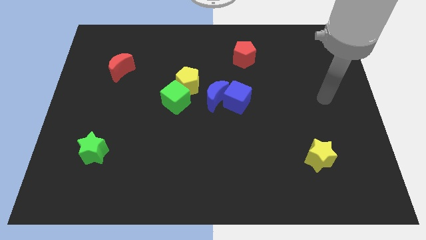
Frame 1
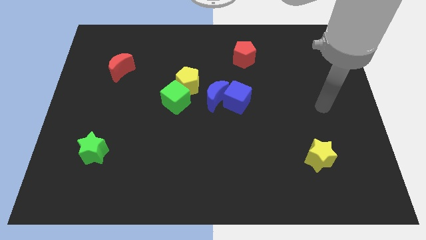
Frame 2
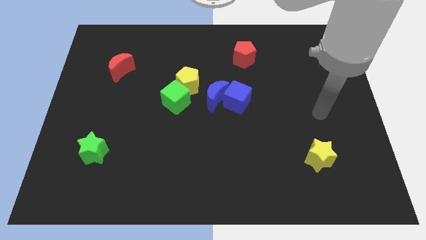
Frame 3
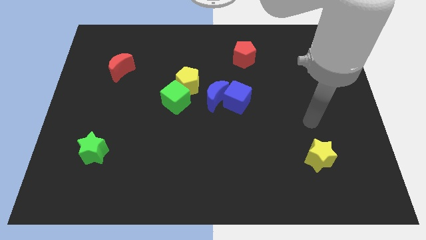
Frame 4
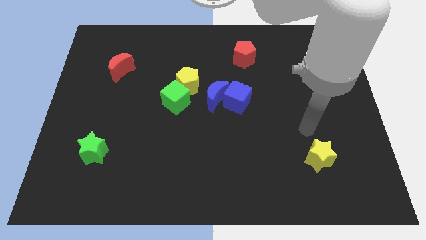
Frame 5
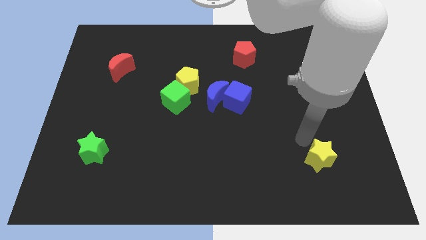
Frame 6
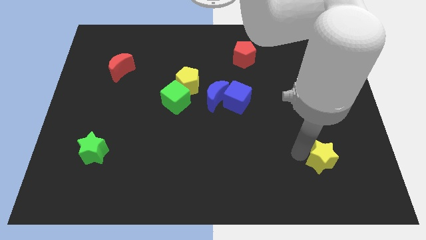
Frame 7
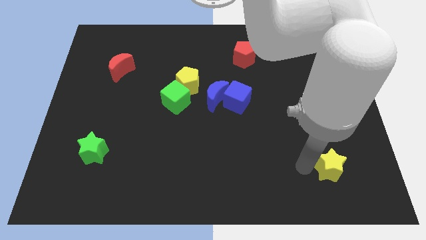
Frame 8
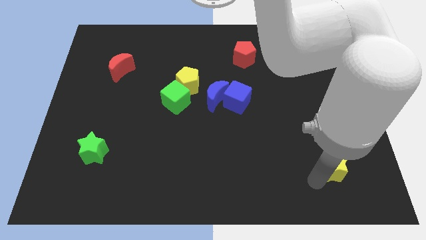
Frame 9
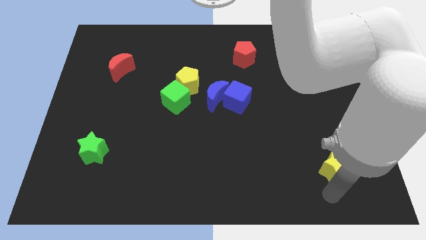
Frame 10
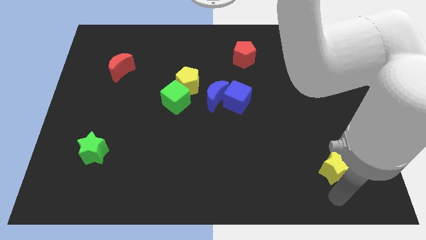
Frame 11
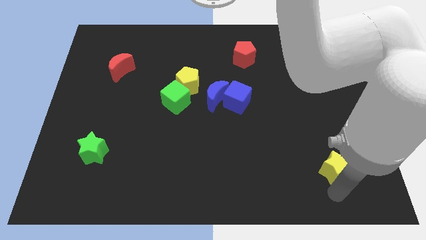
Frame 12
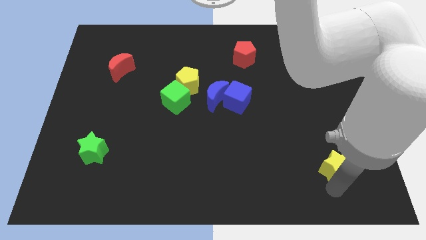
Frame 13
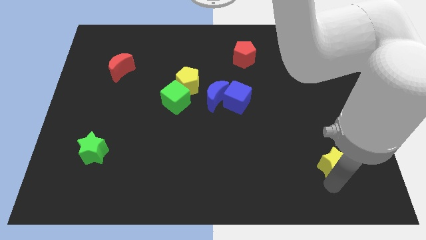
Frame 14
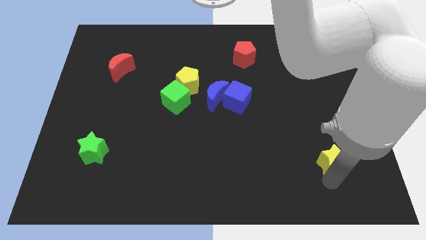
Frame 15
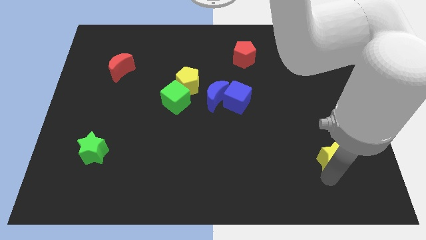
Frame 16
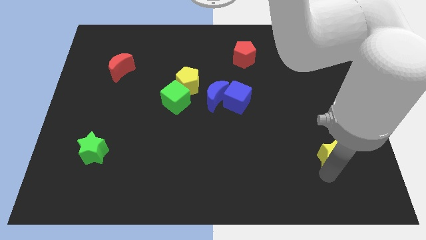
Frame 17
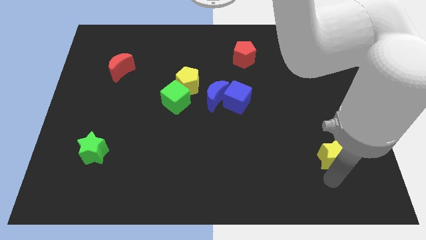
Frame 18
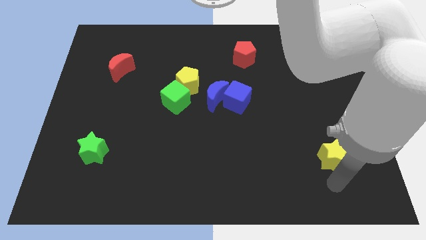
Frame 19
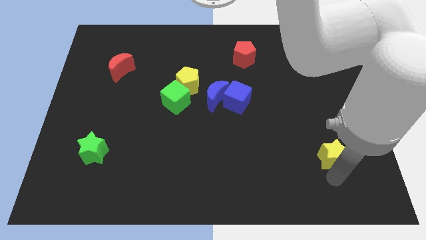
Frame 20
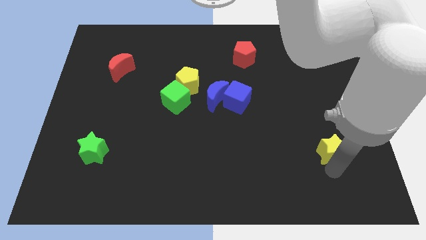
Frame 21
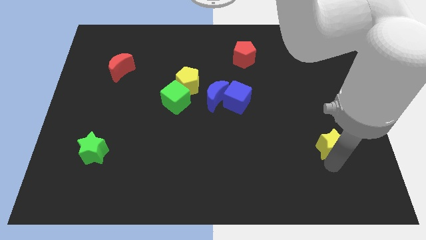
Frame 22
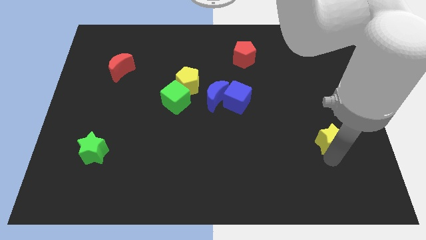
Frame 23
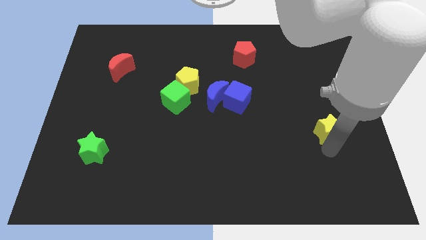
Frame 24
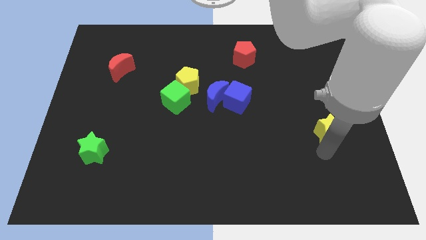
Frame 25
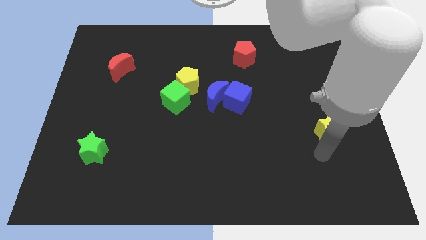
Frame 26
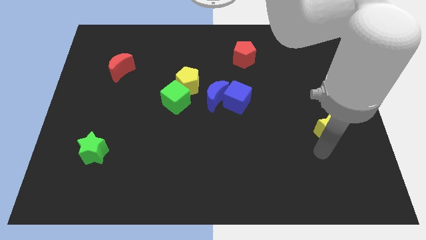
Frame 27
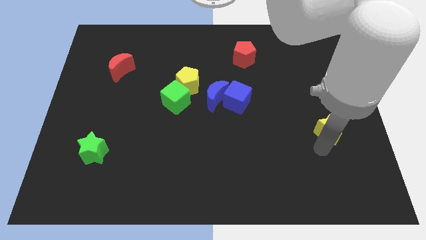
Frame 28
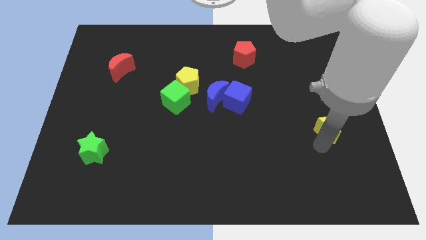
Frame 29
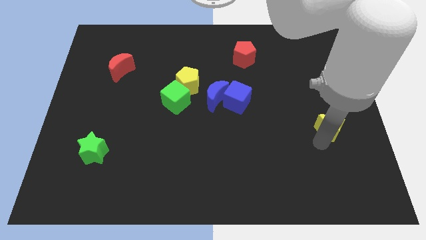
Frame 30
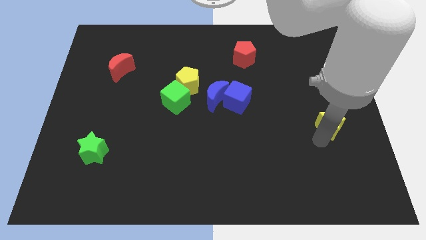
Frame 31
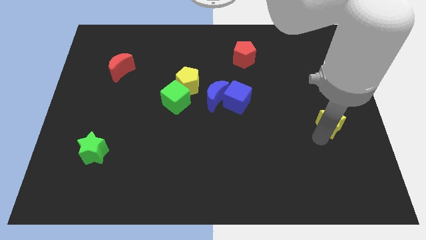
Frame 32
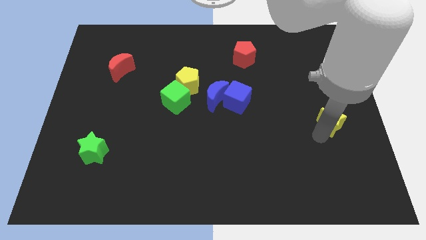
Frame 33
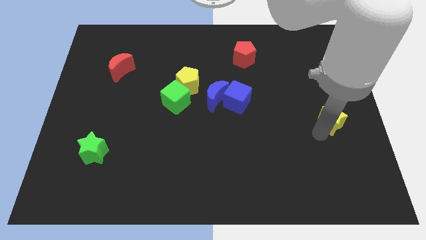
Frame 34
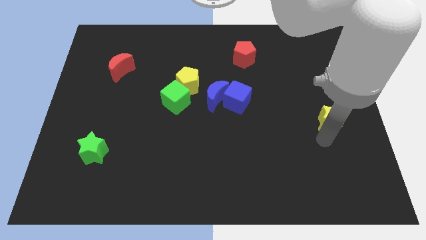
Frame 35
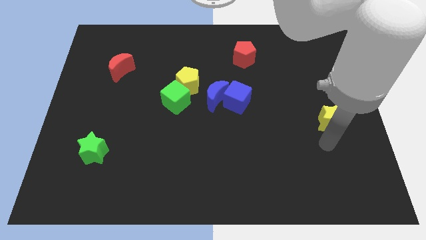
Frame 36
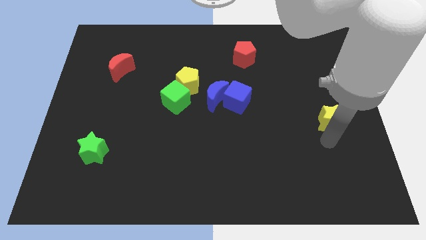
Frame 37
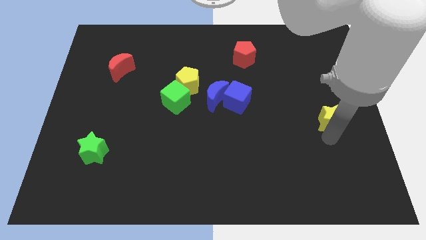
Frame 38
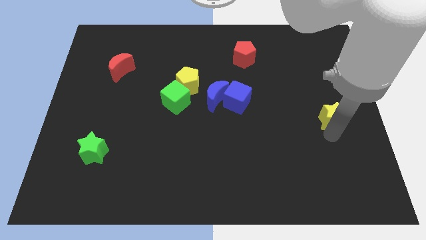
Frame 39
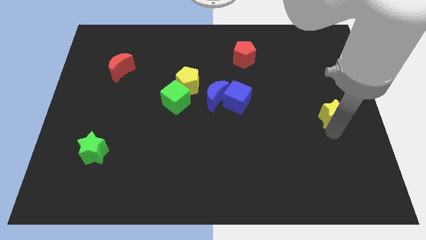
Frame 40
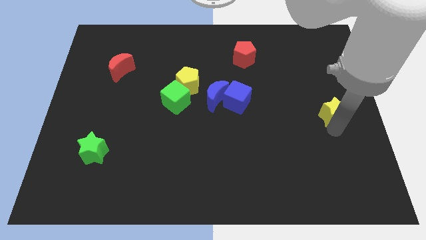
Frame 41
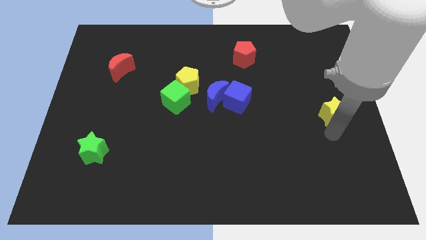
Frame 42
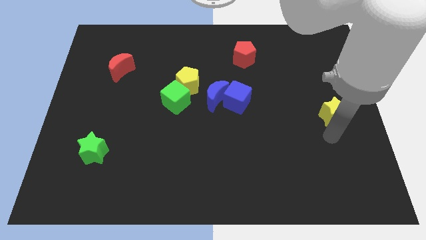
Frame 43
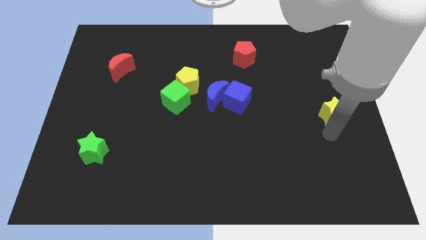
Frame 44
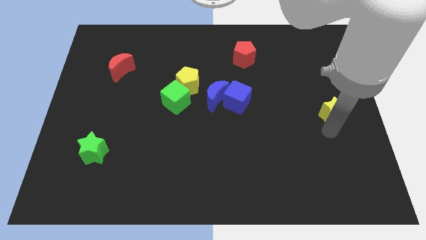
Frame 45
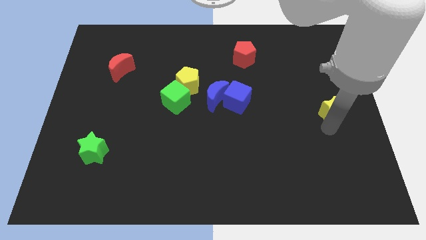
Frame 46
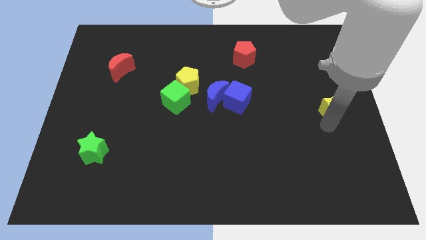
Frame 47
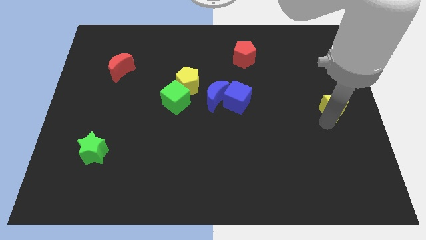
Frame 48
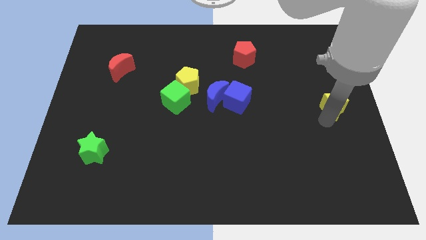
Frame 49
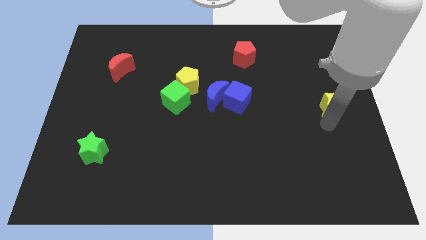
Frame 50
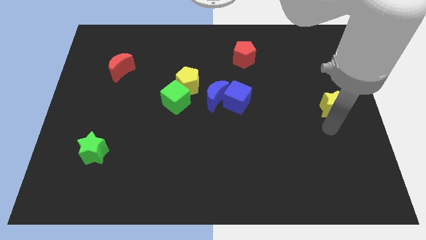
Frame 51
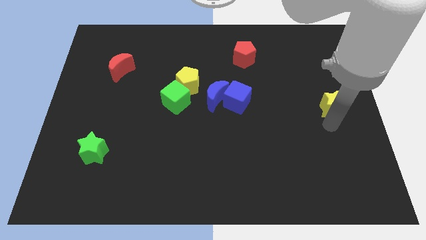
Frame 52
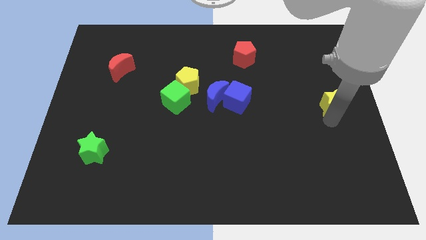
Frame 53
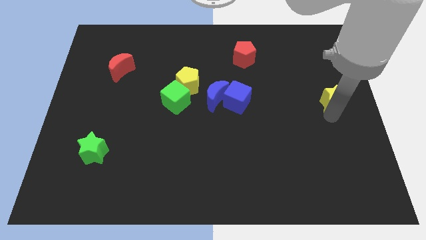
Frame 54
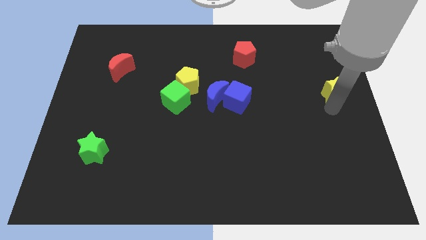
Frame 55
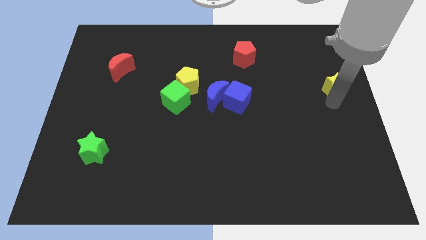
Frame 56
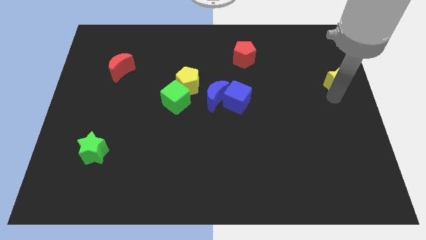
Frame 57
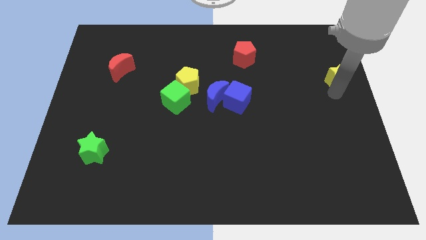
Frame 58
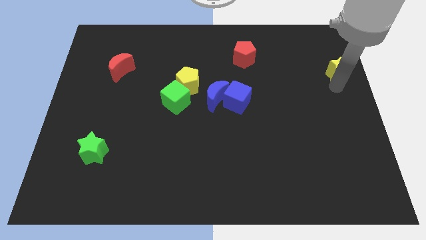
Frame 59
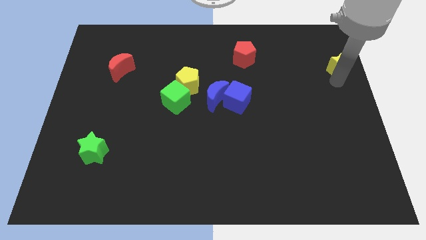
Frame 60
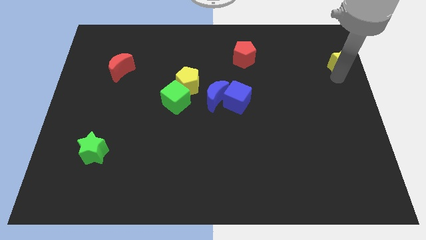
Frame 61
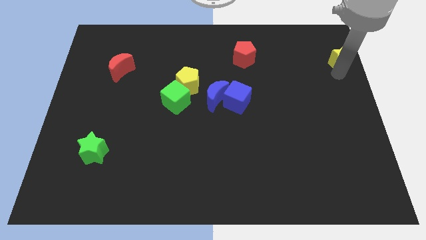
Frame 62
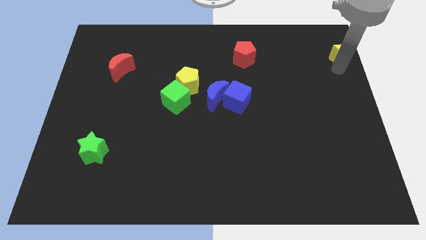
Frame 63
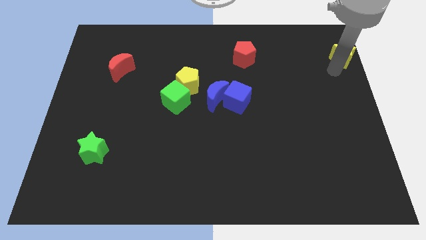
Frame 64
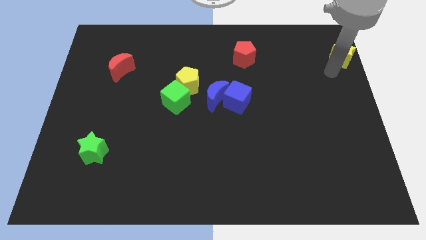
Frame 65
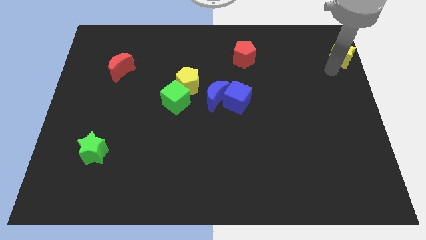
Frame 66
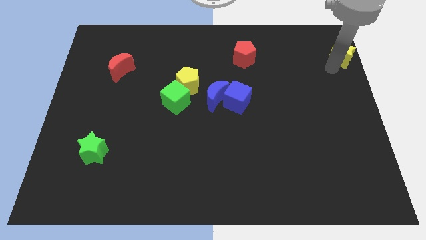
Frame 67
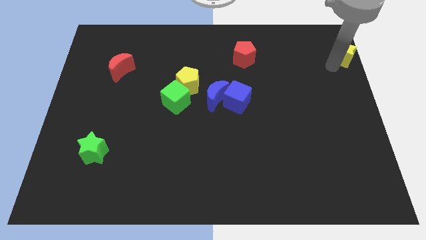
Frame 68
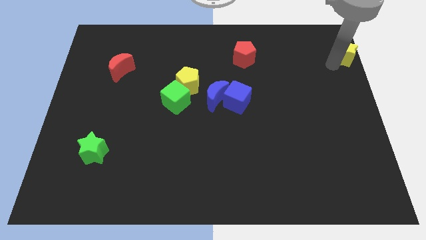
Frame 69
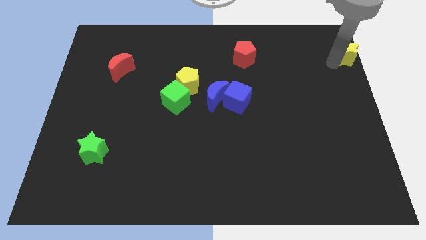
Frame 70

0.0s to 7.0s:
slide the yellow star to the upper right corner
